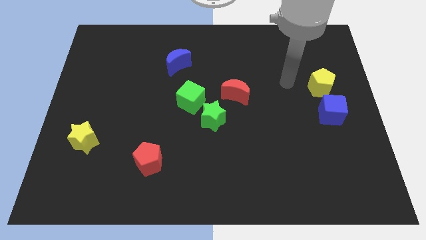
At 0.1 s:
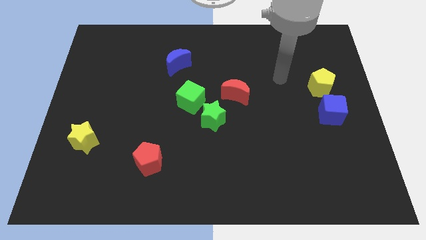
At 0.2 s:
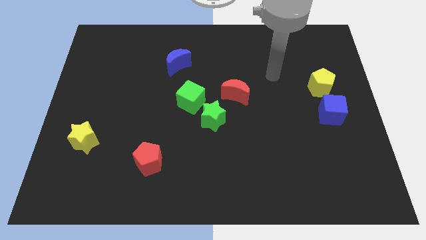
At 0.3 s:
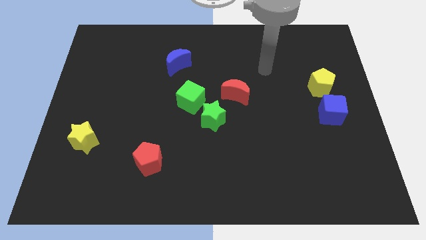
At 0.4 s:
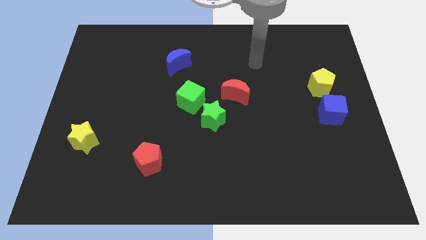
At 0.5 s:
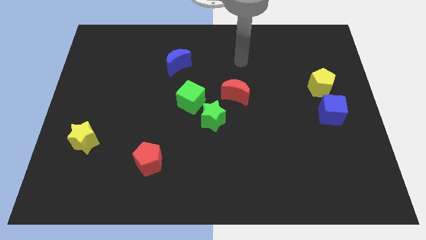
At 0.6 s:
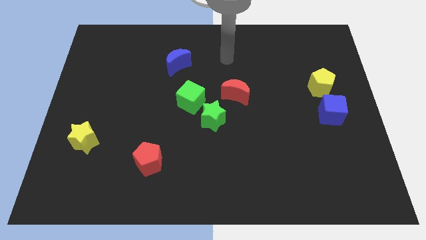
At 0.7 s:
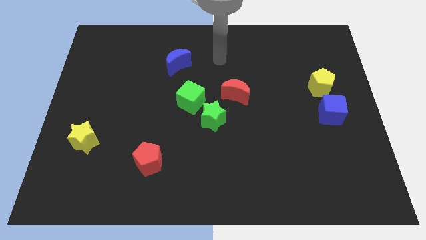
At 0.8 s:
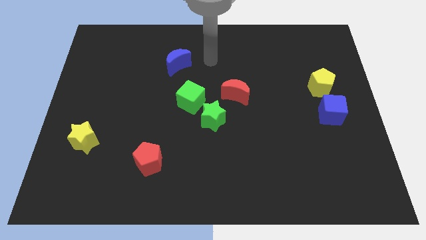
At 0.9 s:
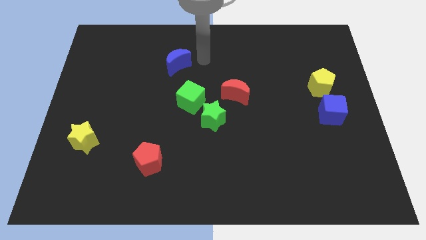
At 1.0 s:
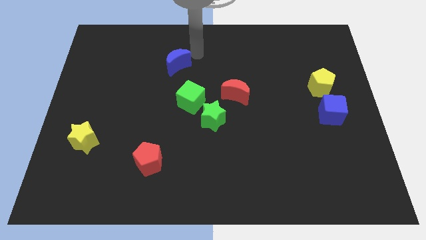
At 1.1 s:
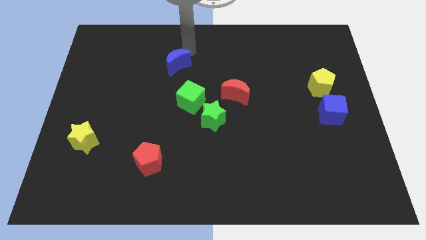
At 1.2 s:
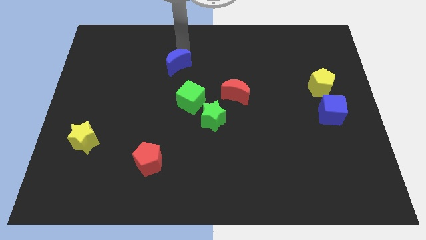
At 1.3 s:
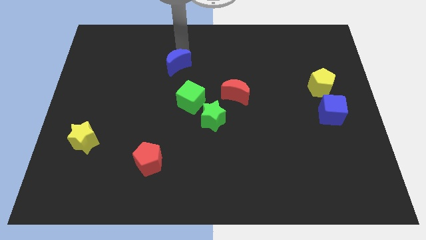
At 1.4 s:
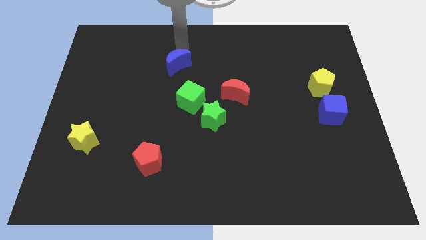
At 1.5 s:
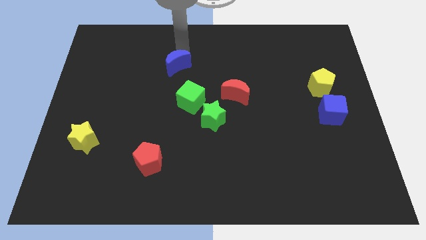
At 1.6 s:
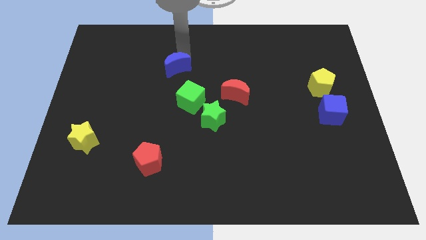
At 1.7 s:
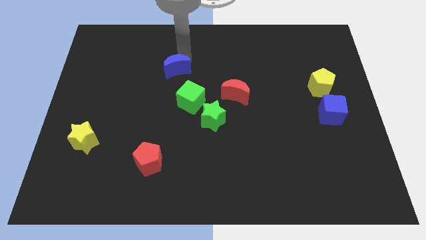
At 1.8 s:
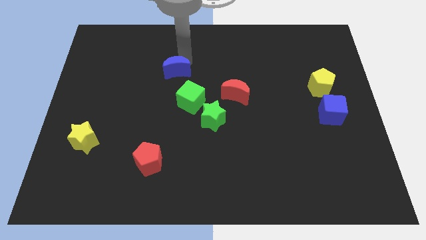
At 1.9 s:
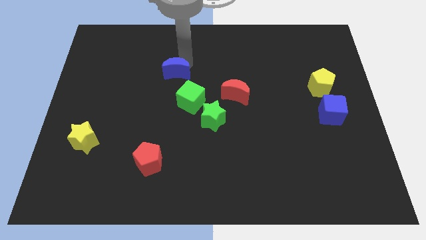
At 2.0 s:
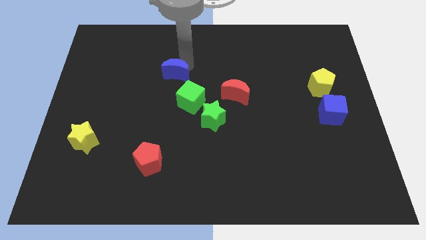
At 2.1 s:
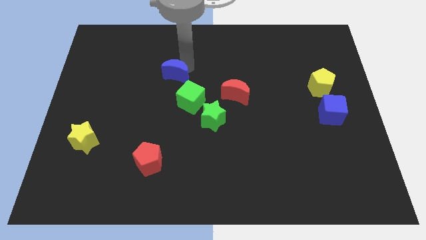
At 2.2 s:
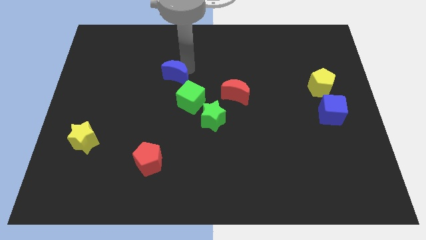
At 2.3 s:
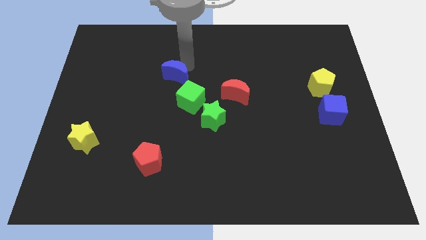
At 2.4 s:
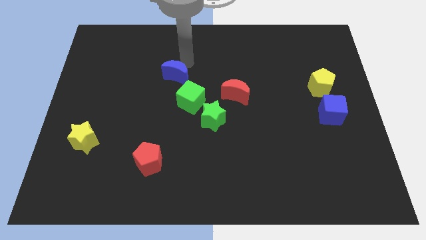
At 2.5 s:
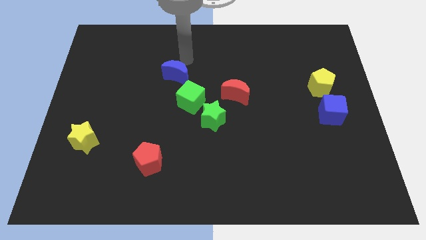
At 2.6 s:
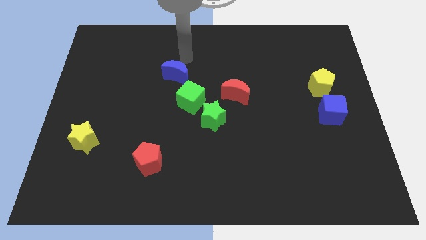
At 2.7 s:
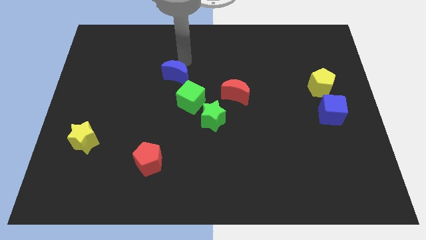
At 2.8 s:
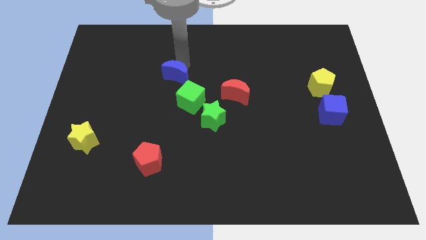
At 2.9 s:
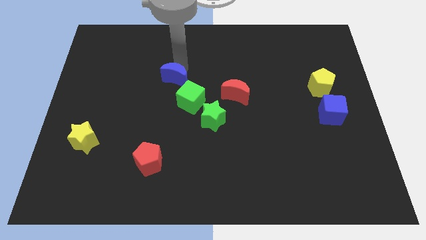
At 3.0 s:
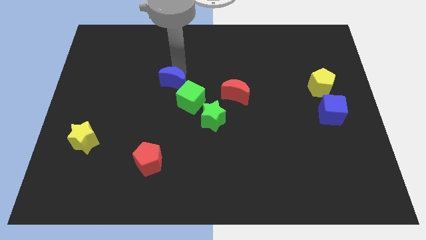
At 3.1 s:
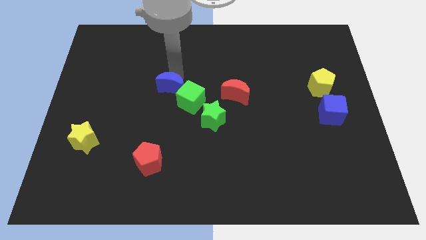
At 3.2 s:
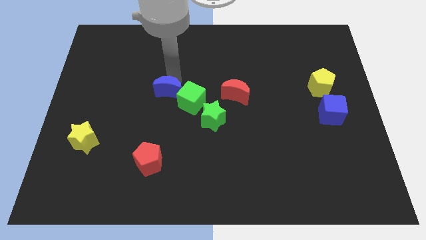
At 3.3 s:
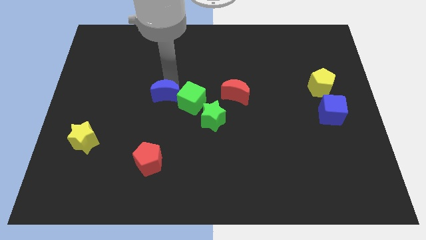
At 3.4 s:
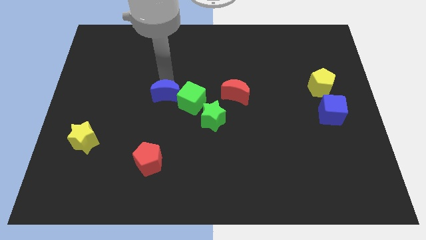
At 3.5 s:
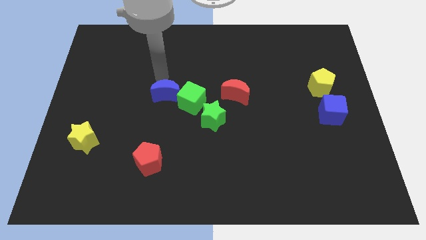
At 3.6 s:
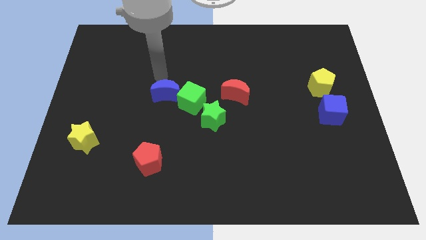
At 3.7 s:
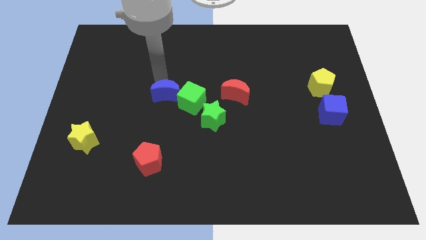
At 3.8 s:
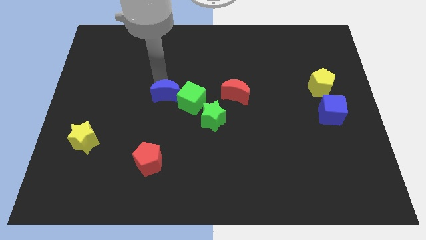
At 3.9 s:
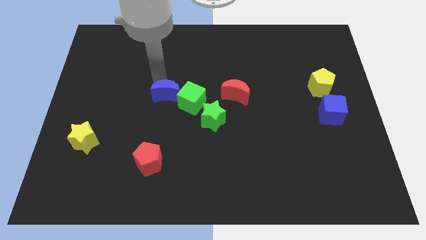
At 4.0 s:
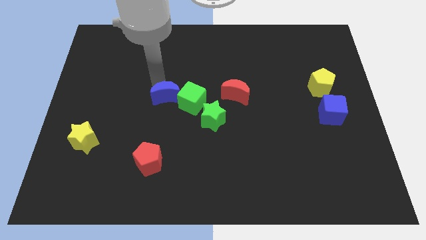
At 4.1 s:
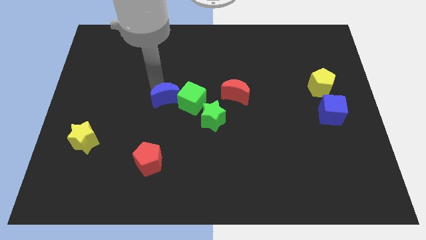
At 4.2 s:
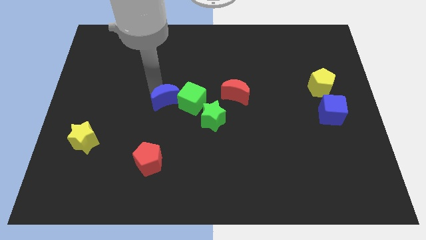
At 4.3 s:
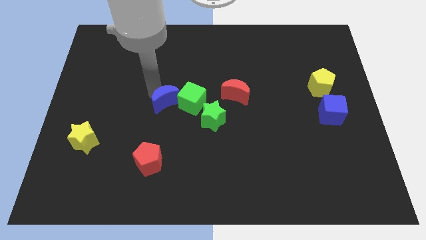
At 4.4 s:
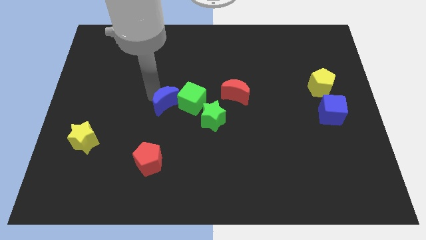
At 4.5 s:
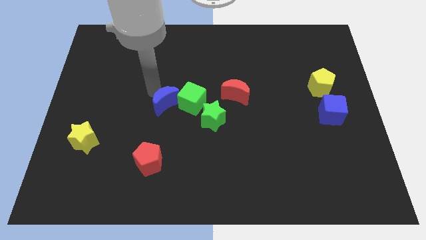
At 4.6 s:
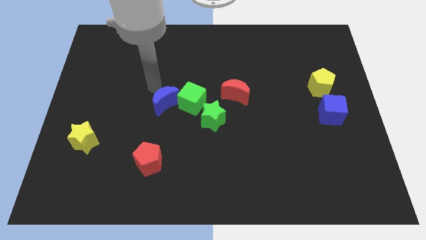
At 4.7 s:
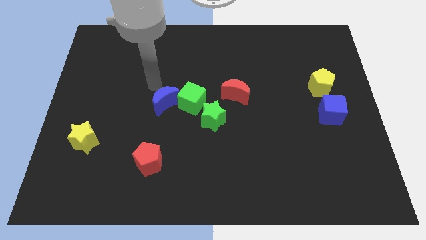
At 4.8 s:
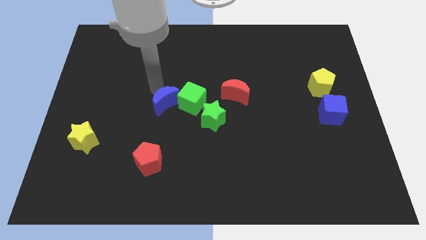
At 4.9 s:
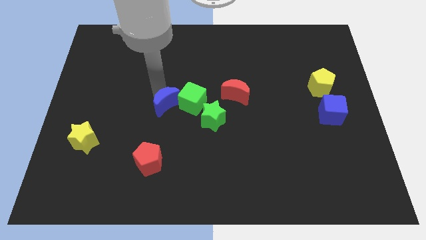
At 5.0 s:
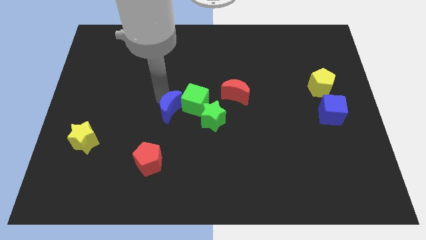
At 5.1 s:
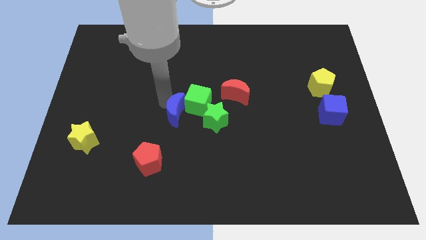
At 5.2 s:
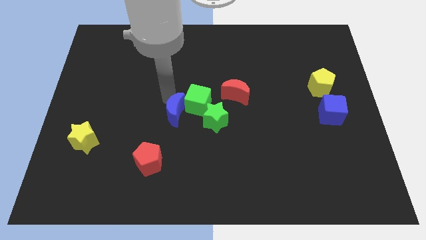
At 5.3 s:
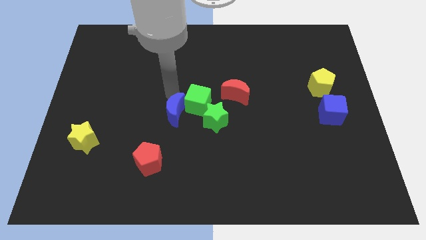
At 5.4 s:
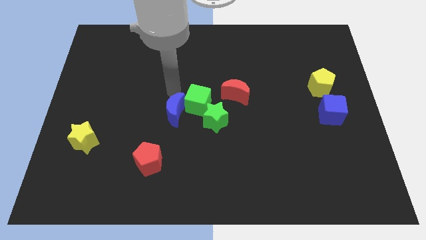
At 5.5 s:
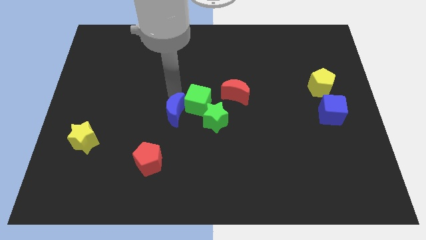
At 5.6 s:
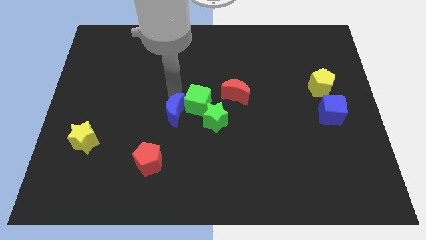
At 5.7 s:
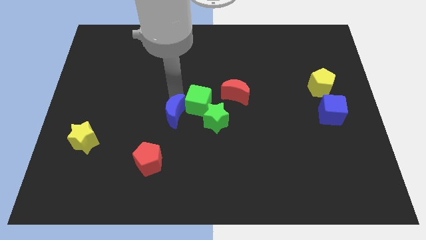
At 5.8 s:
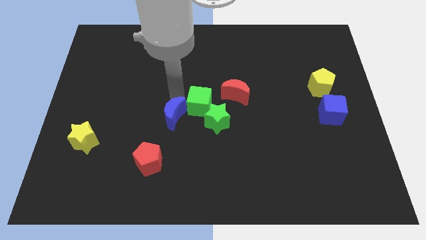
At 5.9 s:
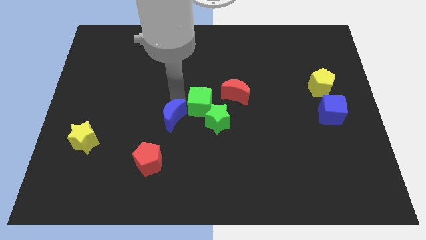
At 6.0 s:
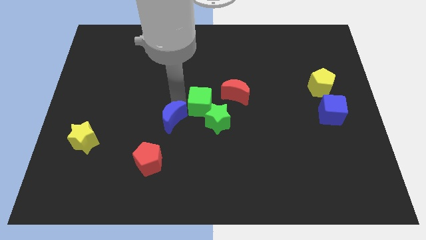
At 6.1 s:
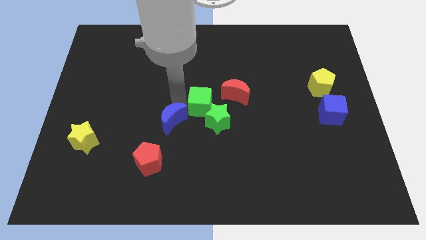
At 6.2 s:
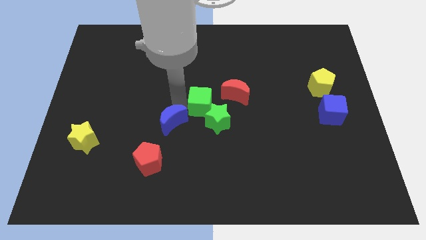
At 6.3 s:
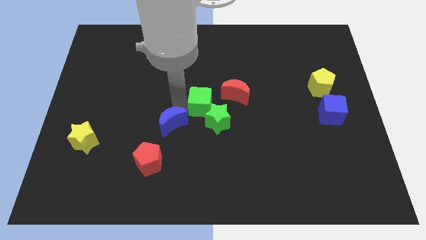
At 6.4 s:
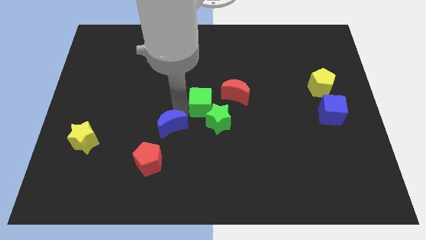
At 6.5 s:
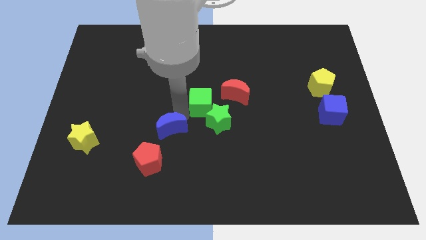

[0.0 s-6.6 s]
slide the blue moon downwards

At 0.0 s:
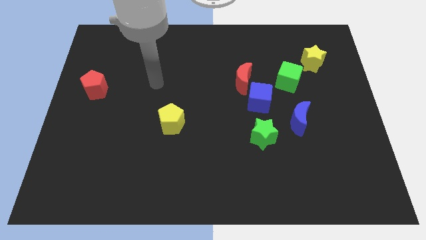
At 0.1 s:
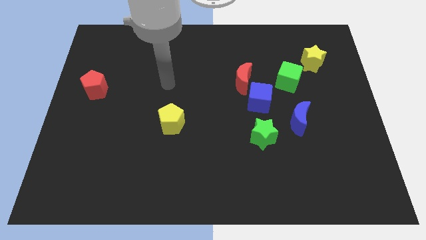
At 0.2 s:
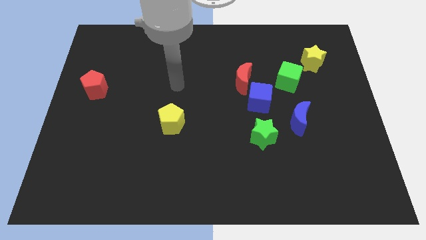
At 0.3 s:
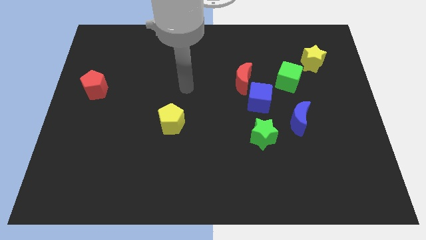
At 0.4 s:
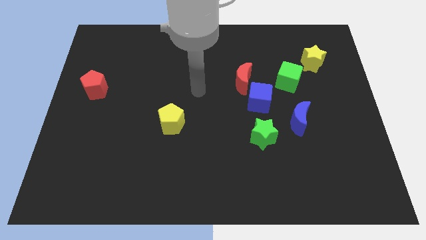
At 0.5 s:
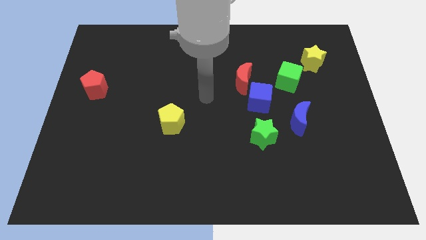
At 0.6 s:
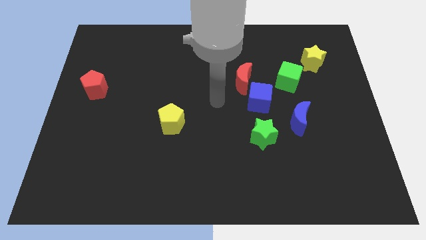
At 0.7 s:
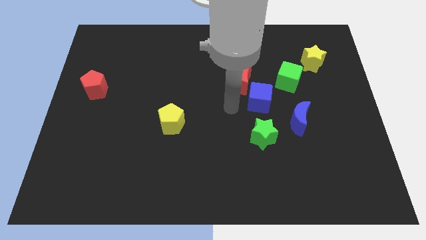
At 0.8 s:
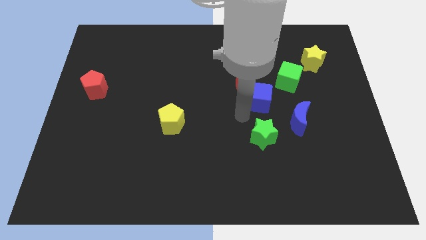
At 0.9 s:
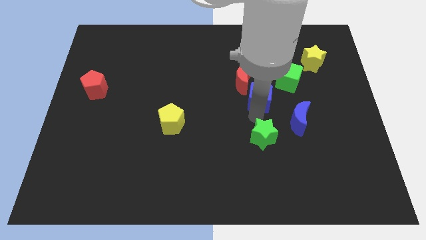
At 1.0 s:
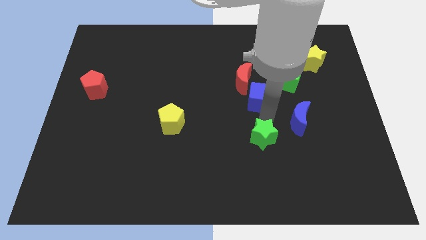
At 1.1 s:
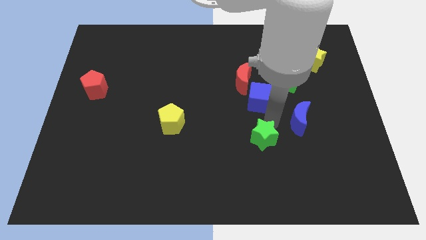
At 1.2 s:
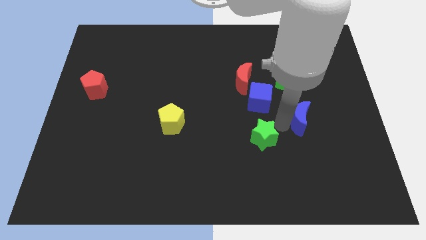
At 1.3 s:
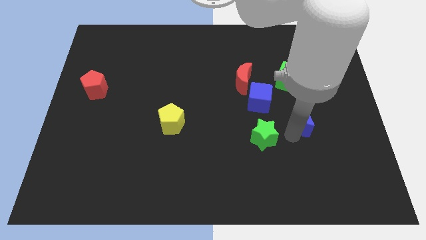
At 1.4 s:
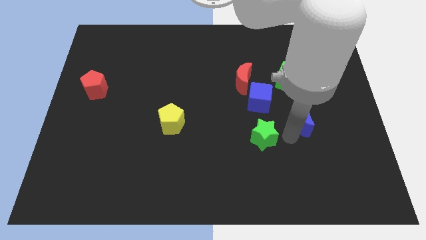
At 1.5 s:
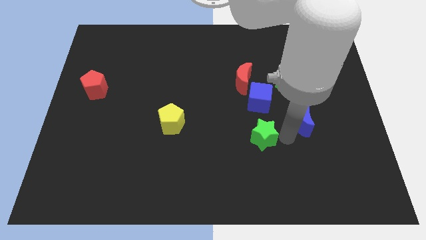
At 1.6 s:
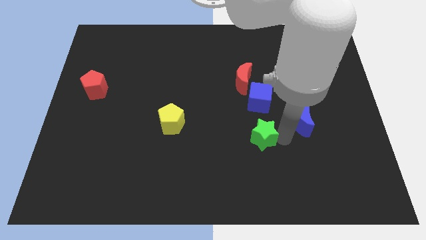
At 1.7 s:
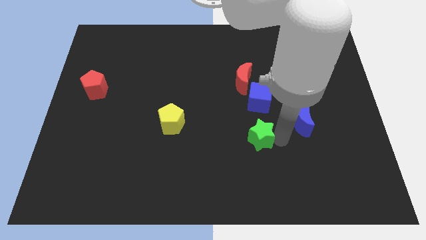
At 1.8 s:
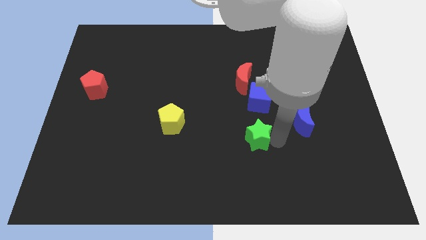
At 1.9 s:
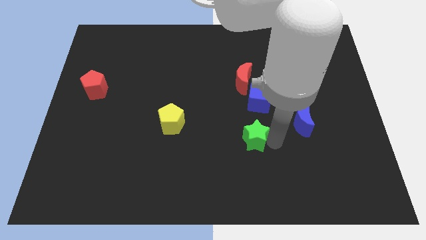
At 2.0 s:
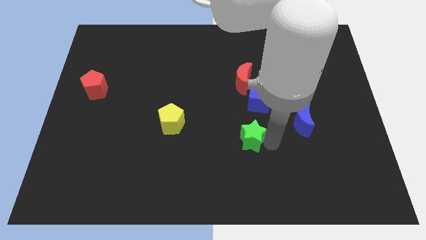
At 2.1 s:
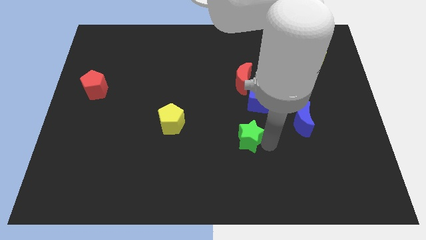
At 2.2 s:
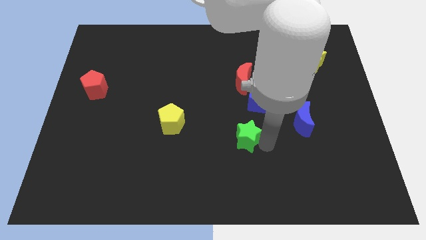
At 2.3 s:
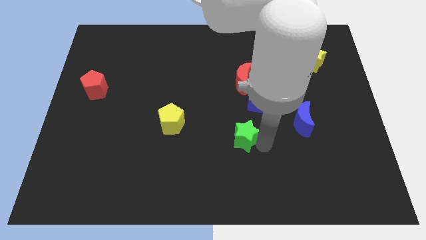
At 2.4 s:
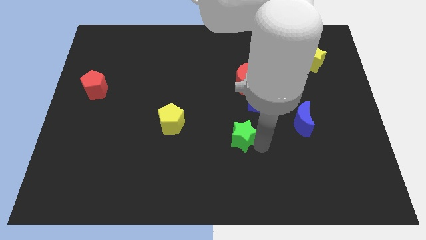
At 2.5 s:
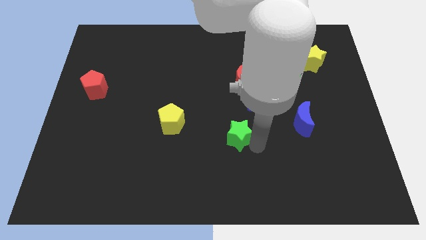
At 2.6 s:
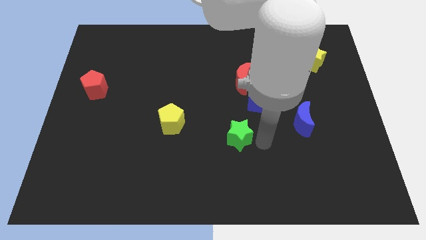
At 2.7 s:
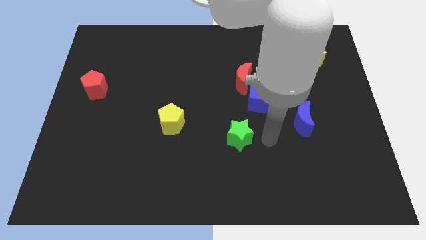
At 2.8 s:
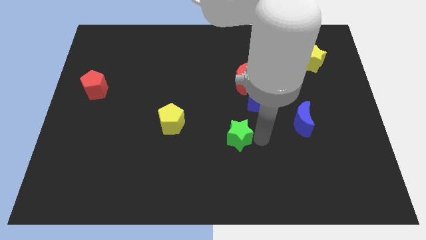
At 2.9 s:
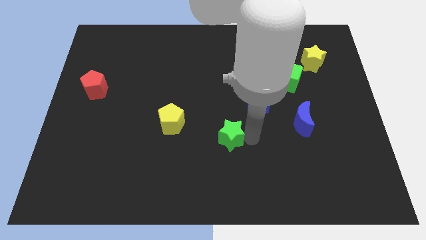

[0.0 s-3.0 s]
slide the green star a little left
